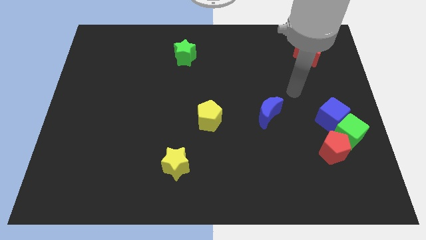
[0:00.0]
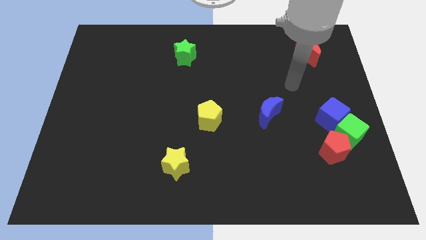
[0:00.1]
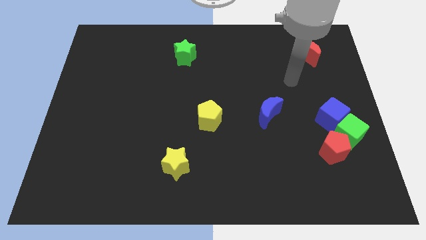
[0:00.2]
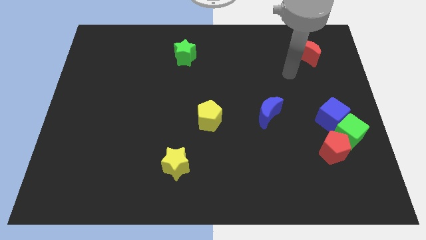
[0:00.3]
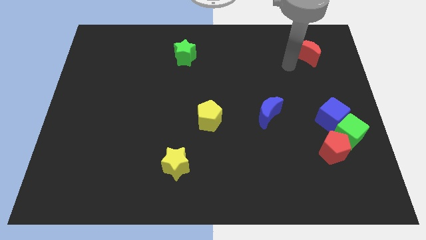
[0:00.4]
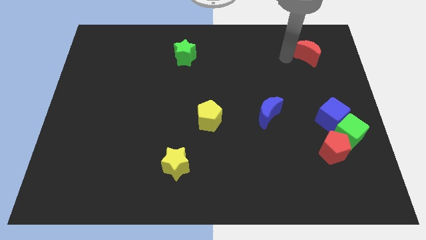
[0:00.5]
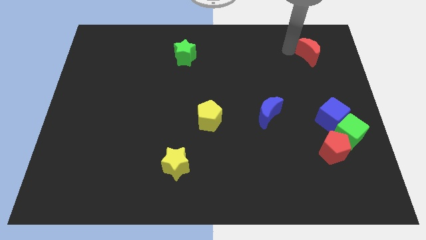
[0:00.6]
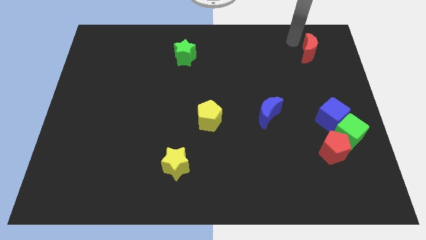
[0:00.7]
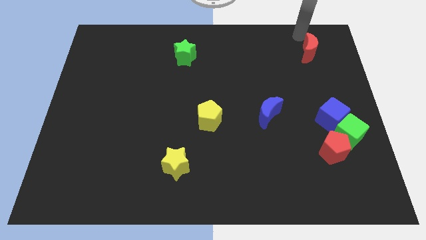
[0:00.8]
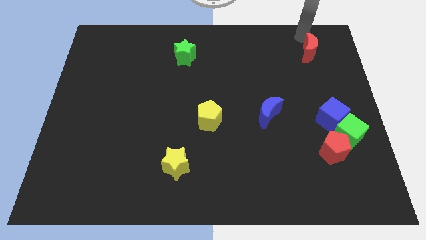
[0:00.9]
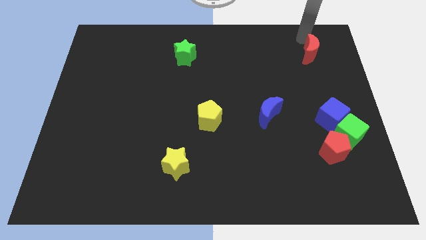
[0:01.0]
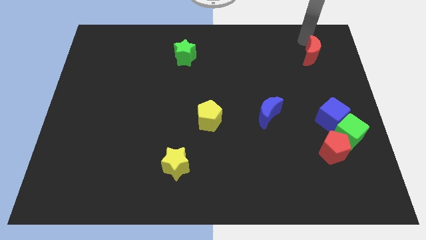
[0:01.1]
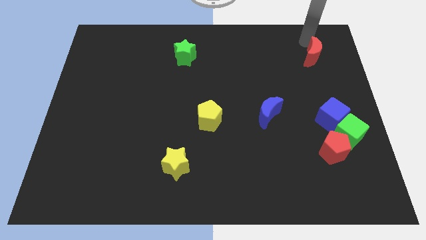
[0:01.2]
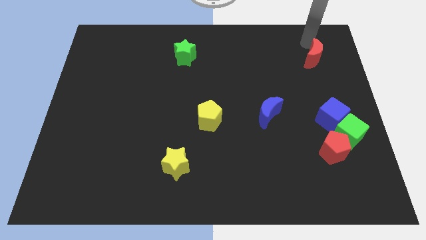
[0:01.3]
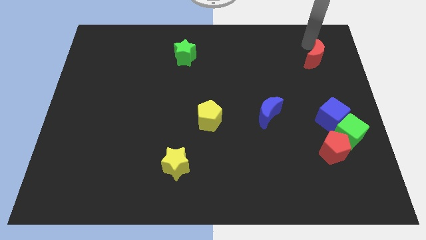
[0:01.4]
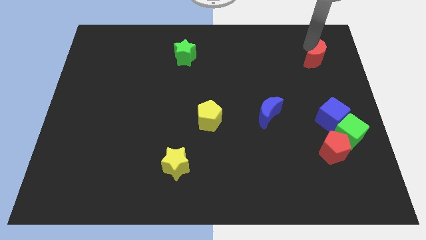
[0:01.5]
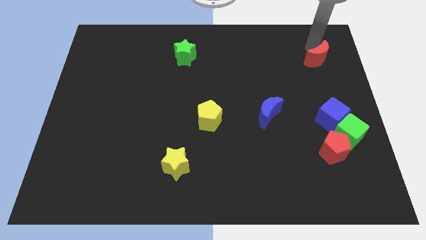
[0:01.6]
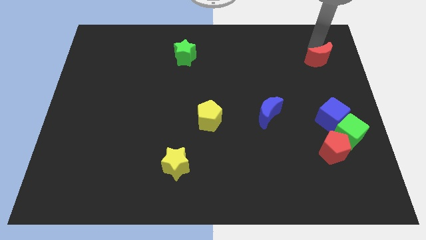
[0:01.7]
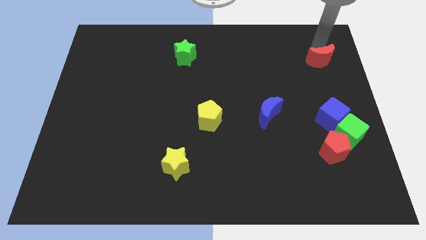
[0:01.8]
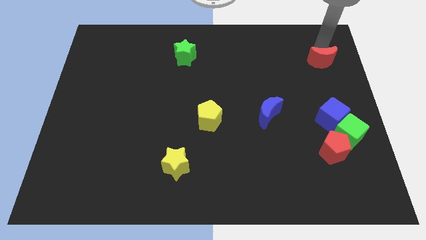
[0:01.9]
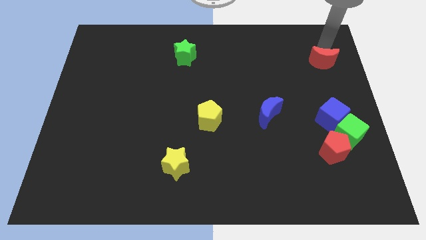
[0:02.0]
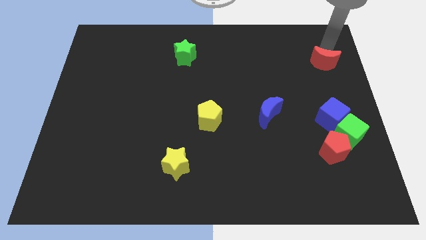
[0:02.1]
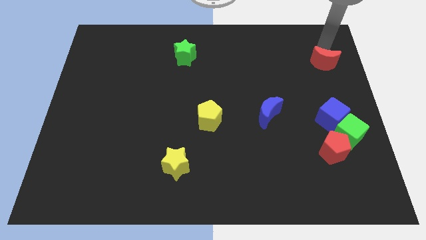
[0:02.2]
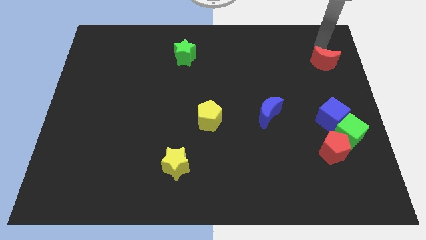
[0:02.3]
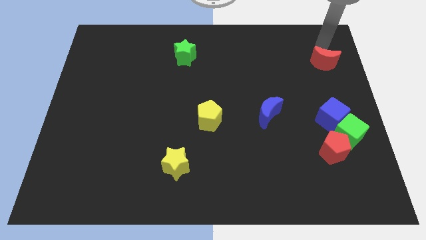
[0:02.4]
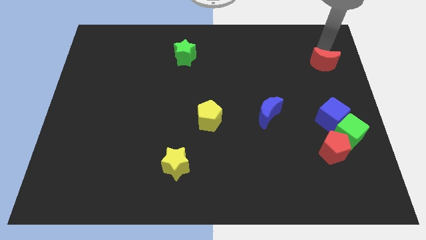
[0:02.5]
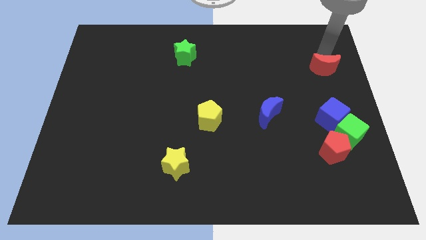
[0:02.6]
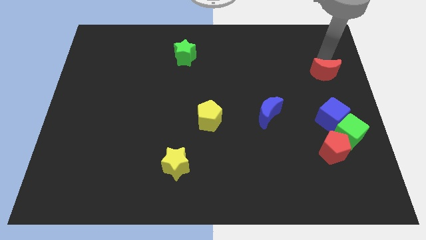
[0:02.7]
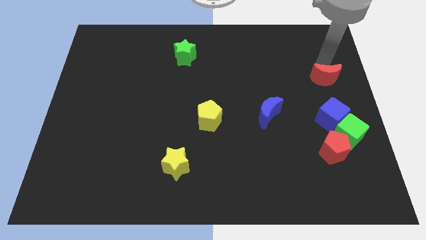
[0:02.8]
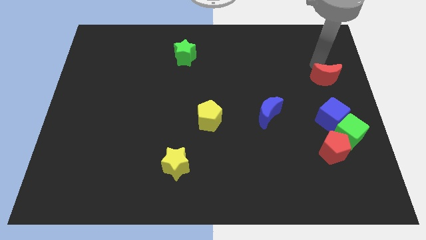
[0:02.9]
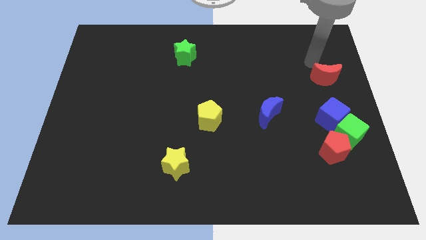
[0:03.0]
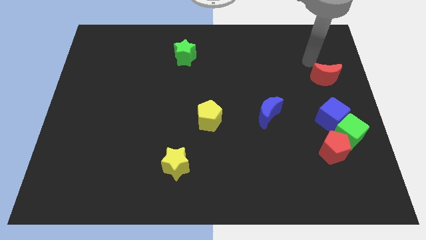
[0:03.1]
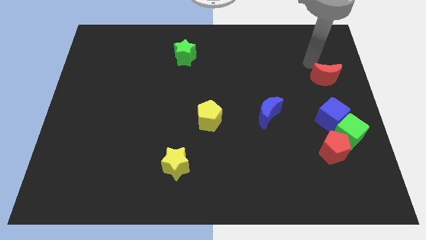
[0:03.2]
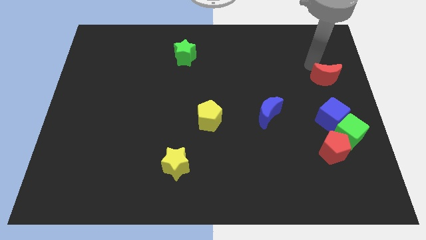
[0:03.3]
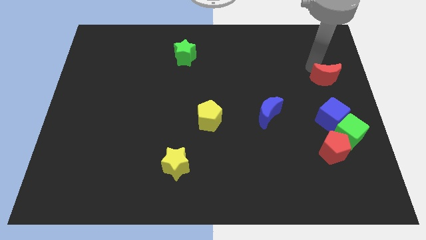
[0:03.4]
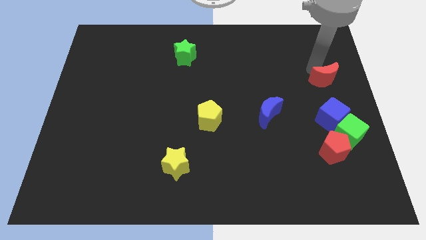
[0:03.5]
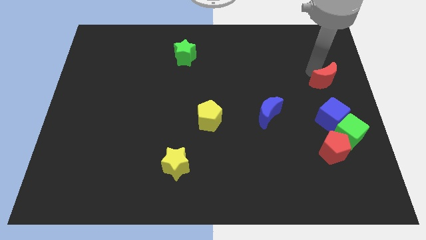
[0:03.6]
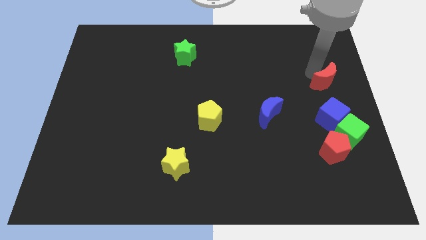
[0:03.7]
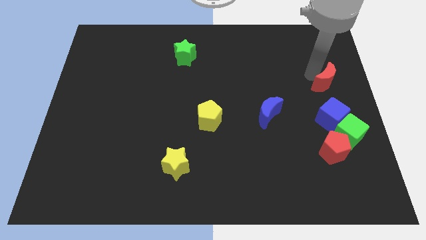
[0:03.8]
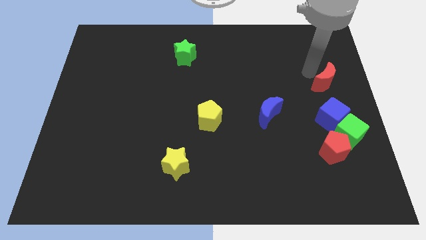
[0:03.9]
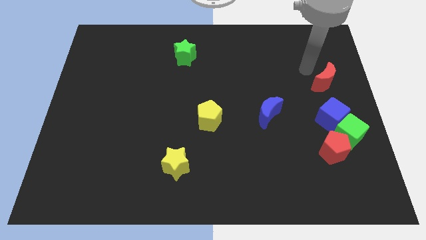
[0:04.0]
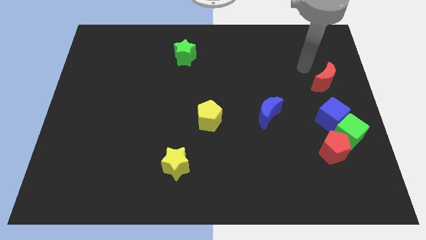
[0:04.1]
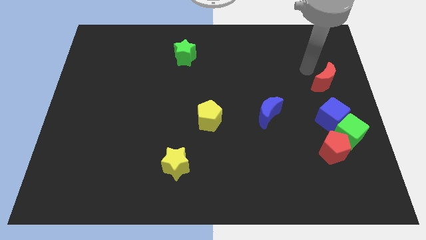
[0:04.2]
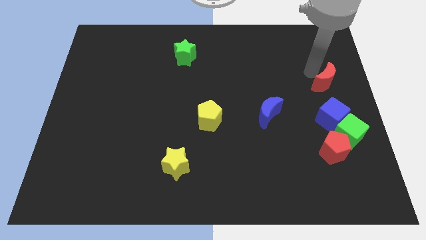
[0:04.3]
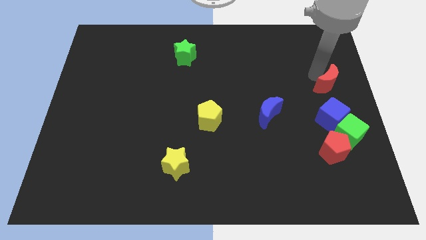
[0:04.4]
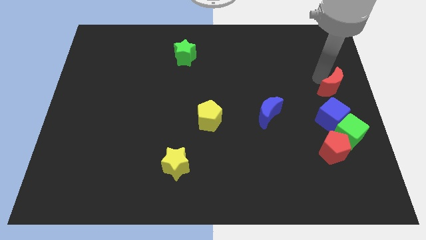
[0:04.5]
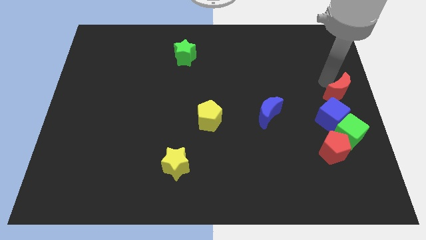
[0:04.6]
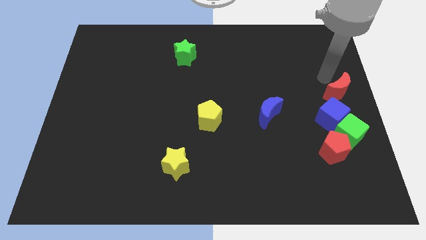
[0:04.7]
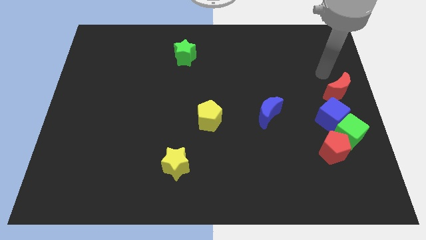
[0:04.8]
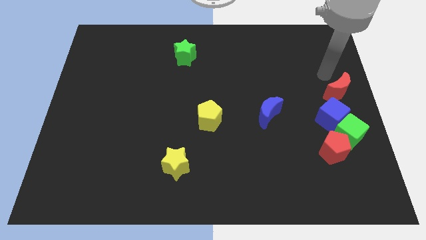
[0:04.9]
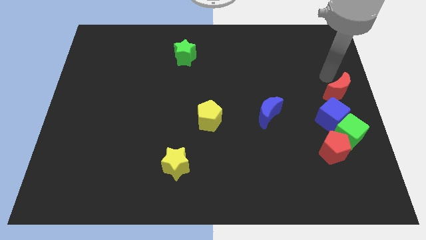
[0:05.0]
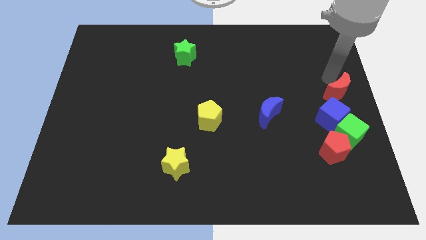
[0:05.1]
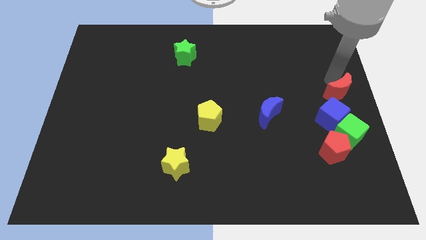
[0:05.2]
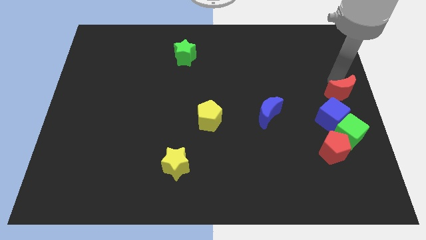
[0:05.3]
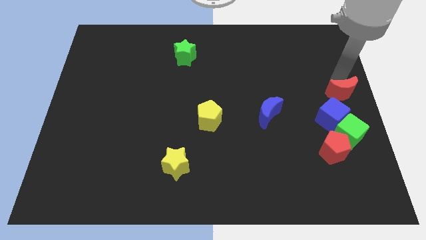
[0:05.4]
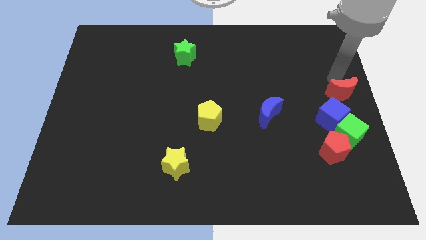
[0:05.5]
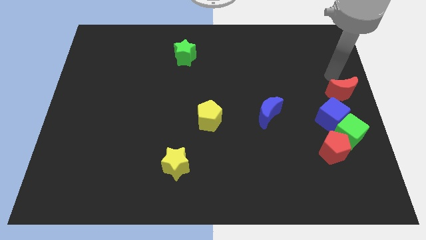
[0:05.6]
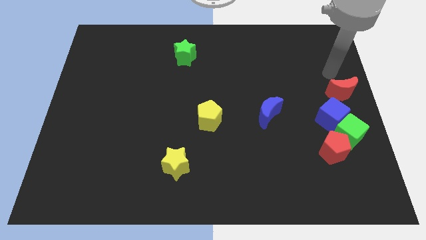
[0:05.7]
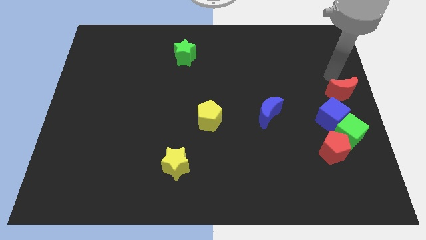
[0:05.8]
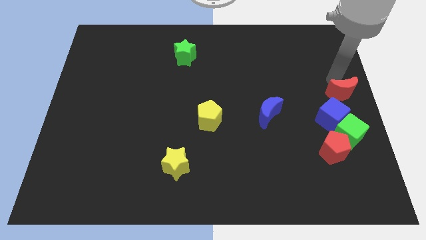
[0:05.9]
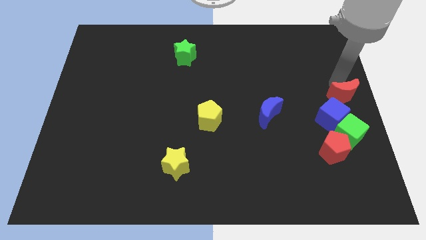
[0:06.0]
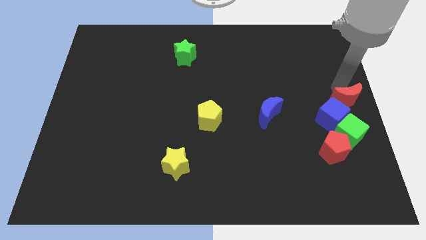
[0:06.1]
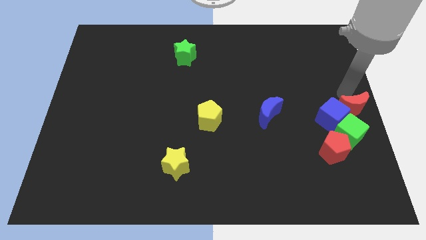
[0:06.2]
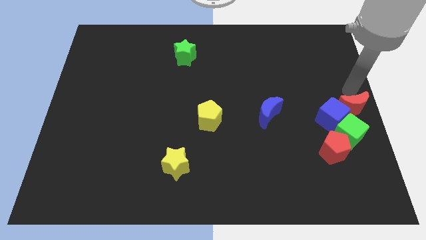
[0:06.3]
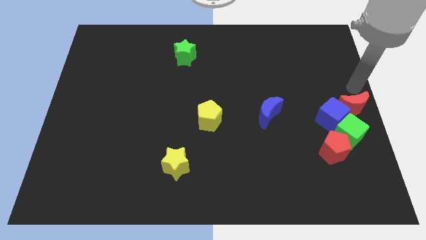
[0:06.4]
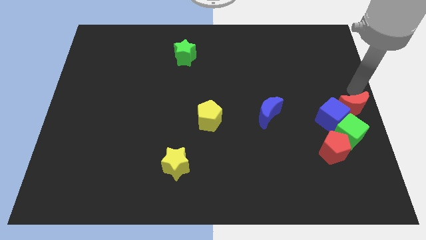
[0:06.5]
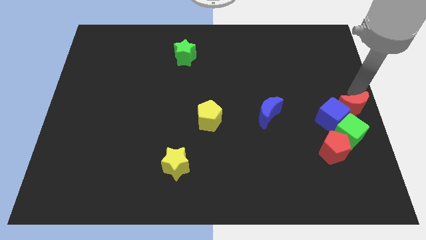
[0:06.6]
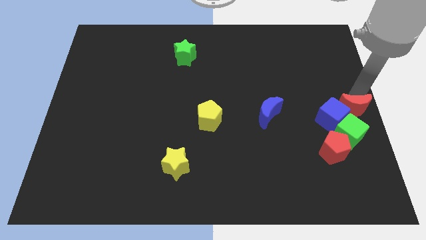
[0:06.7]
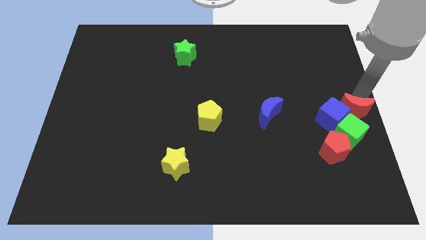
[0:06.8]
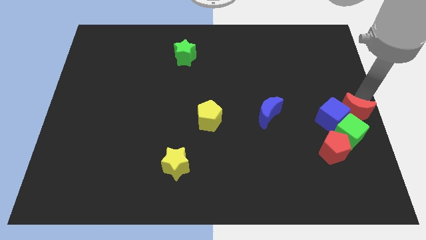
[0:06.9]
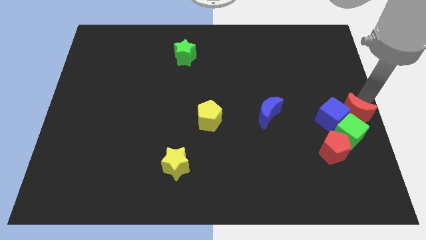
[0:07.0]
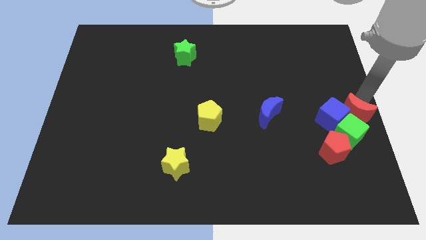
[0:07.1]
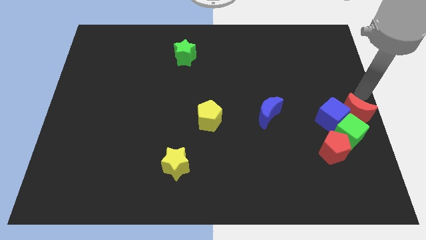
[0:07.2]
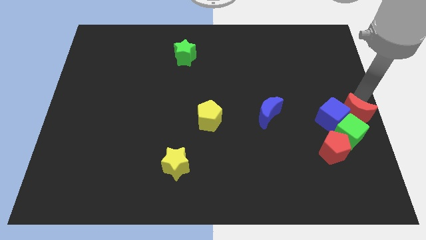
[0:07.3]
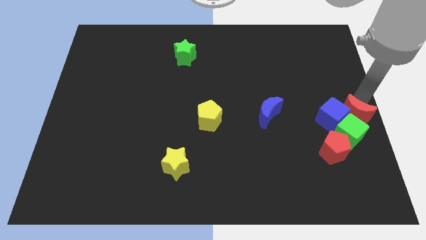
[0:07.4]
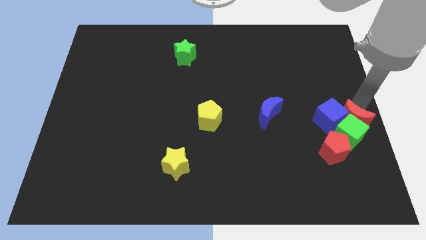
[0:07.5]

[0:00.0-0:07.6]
move the red moon close to the green cube

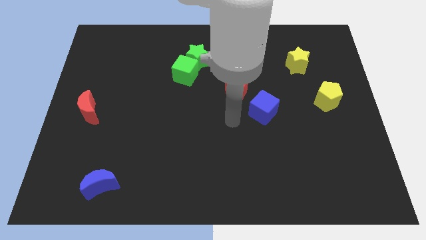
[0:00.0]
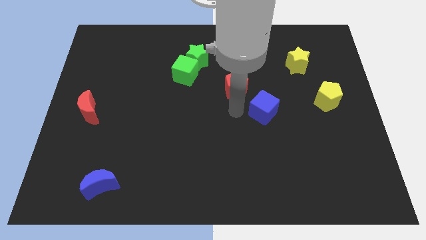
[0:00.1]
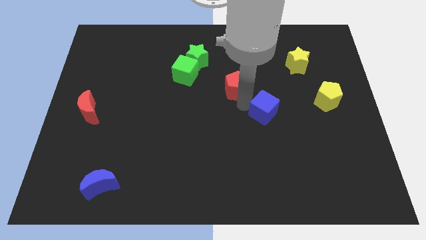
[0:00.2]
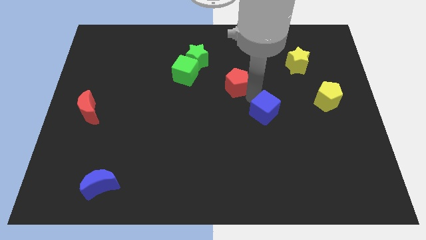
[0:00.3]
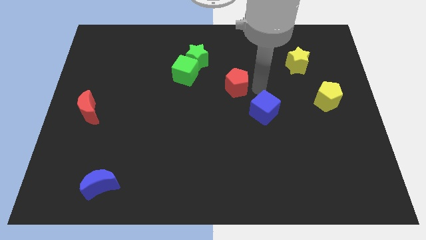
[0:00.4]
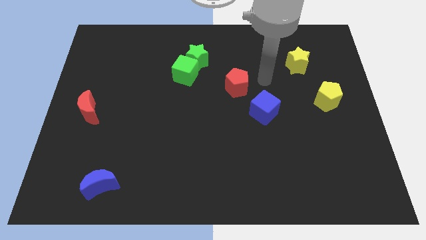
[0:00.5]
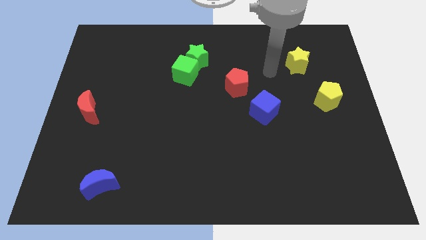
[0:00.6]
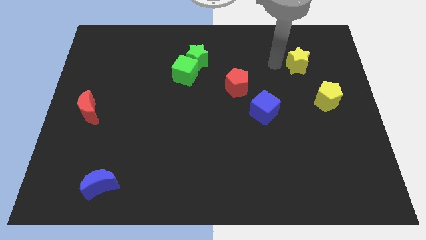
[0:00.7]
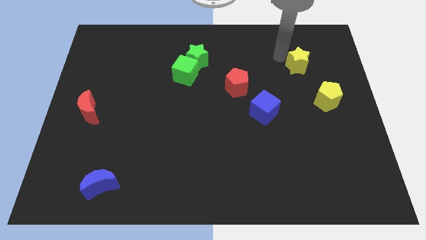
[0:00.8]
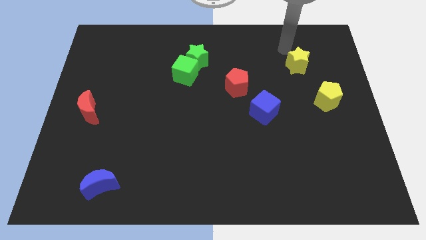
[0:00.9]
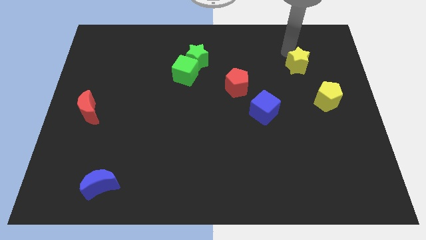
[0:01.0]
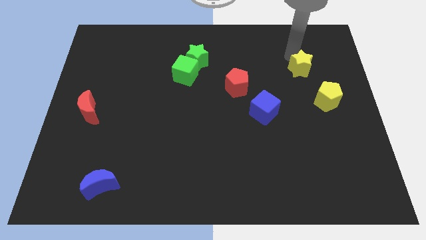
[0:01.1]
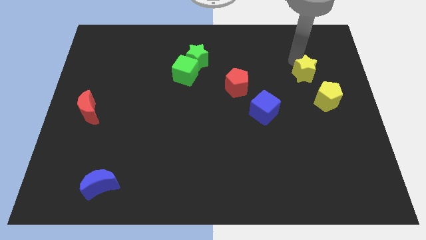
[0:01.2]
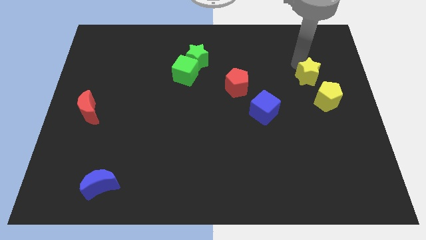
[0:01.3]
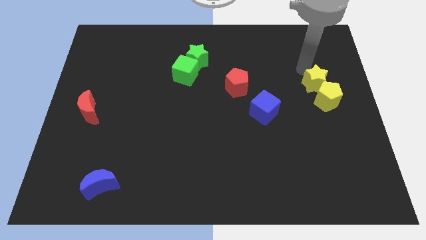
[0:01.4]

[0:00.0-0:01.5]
slide the yellow star close to the yellow pentagon
